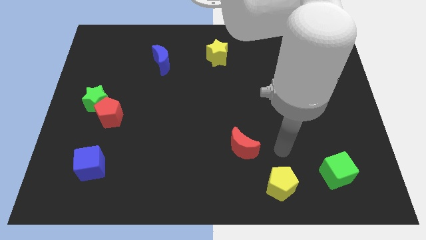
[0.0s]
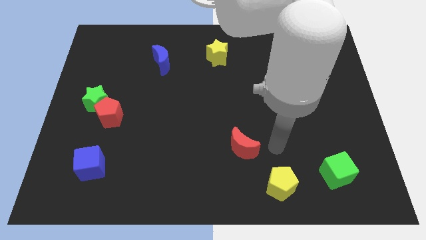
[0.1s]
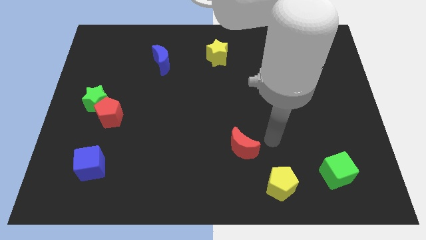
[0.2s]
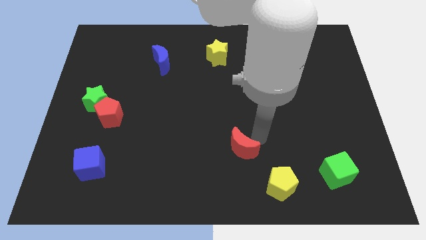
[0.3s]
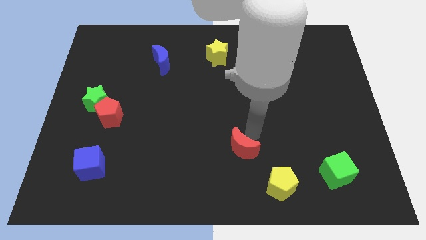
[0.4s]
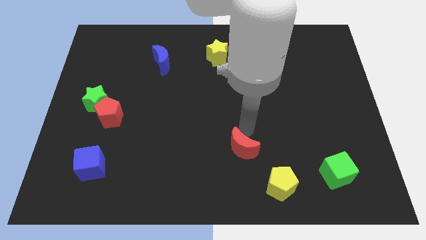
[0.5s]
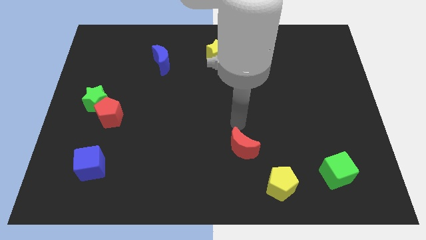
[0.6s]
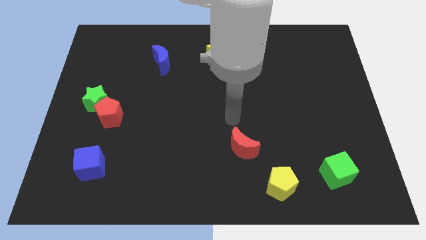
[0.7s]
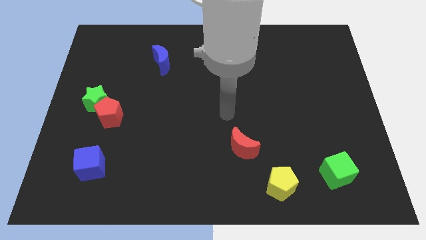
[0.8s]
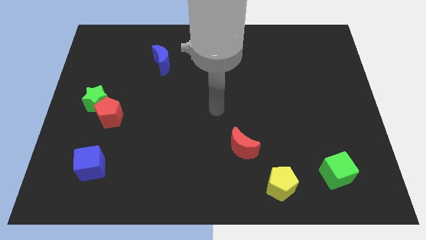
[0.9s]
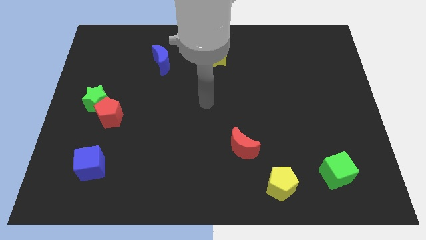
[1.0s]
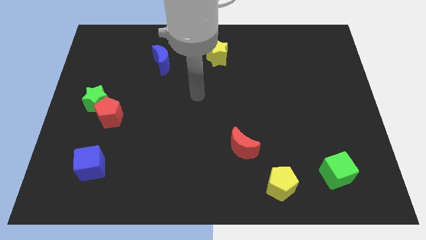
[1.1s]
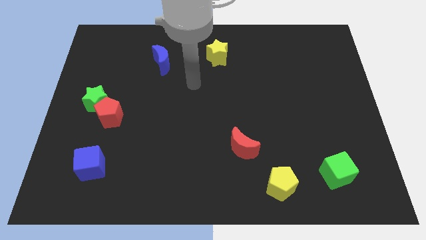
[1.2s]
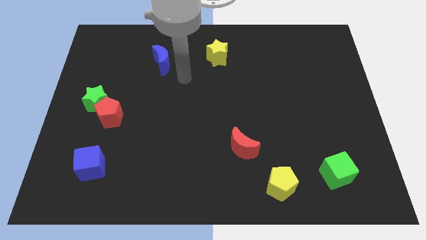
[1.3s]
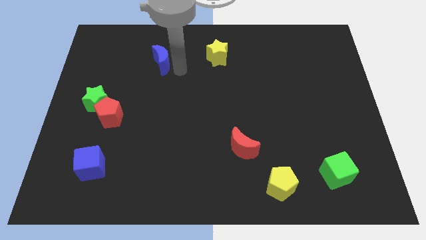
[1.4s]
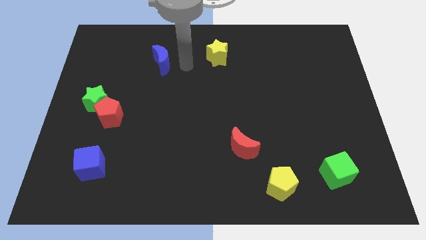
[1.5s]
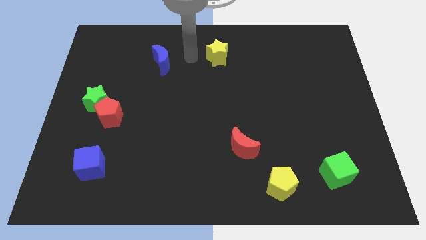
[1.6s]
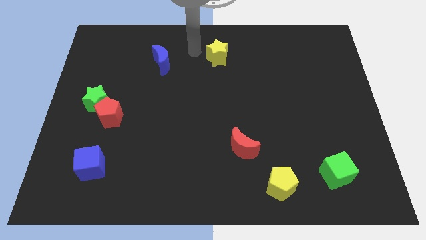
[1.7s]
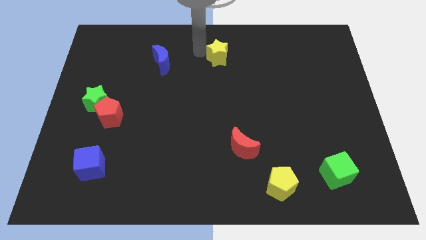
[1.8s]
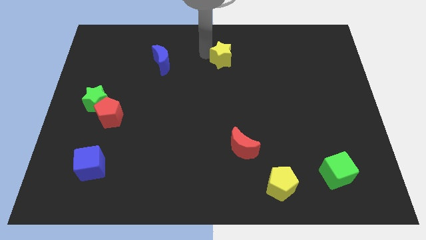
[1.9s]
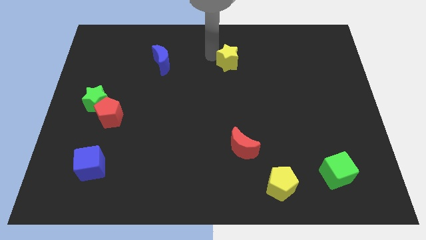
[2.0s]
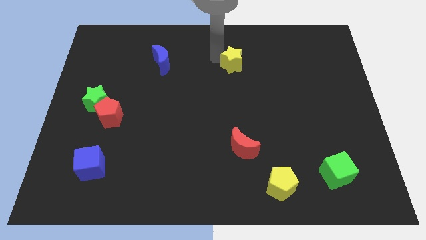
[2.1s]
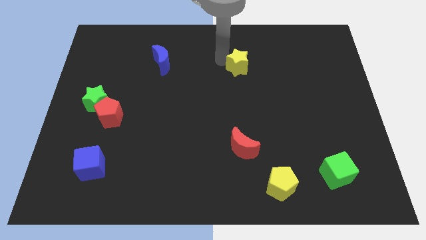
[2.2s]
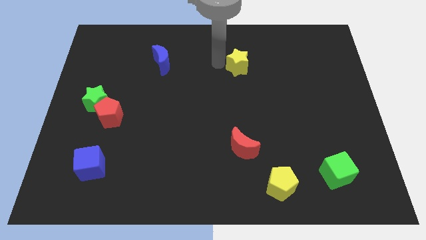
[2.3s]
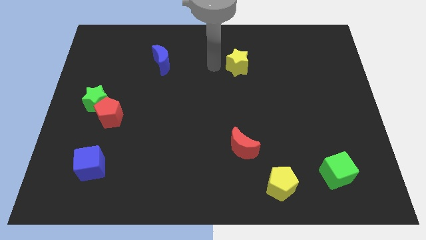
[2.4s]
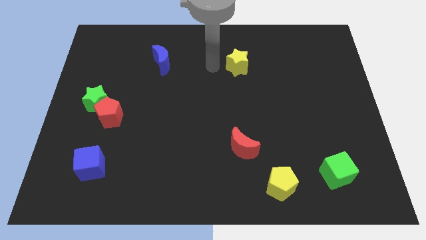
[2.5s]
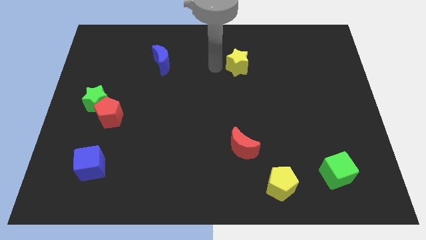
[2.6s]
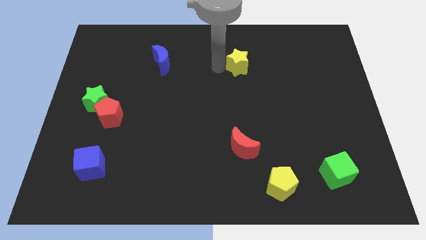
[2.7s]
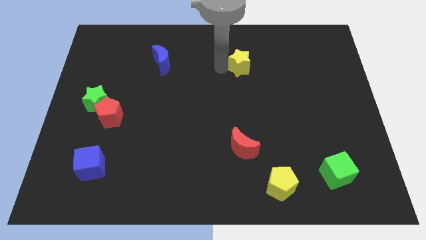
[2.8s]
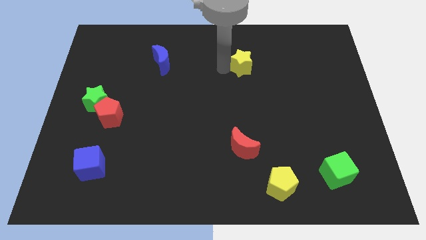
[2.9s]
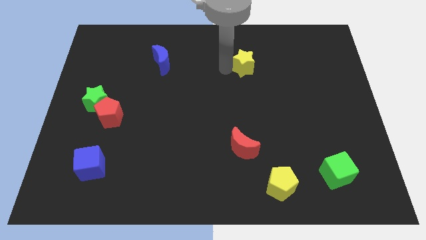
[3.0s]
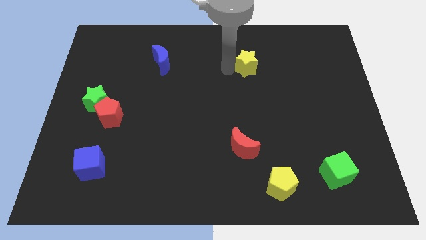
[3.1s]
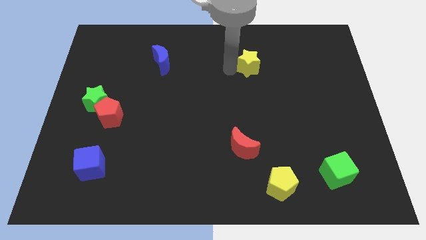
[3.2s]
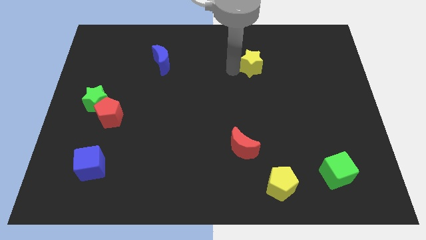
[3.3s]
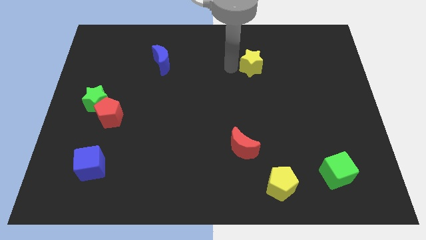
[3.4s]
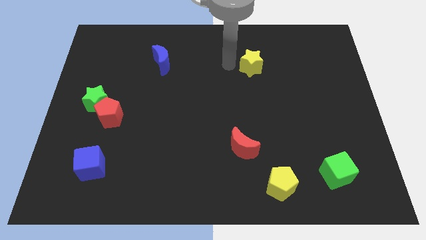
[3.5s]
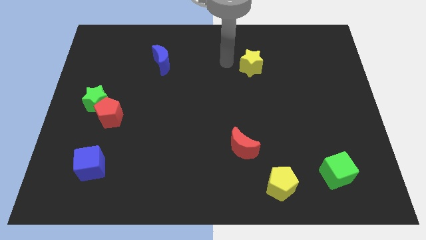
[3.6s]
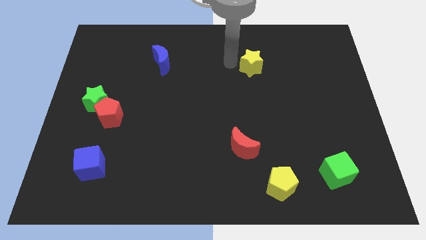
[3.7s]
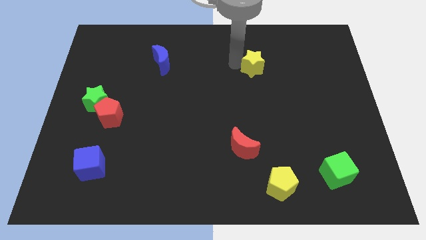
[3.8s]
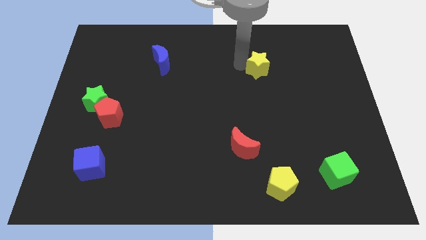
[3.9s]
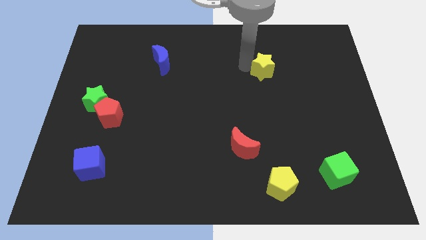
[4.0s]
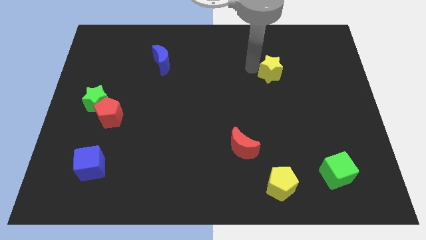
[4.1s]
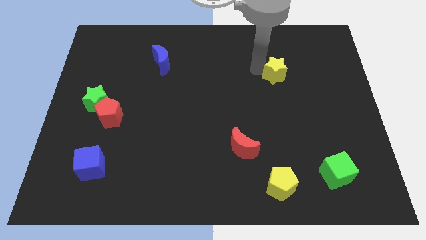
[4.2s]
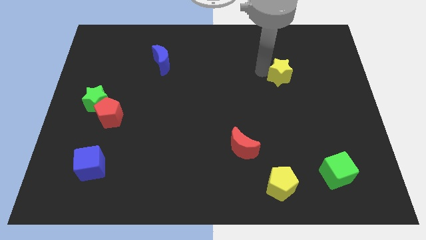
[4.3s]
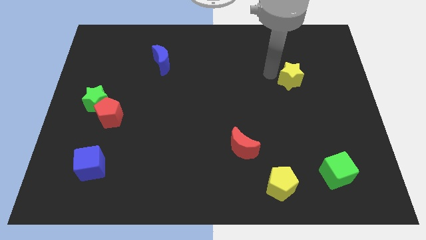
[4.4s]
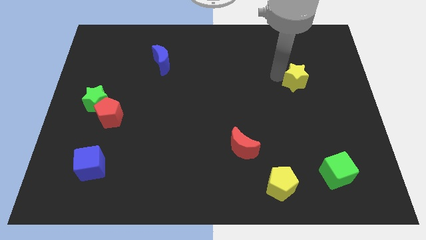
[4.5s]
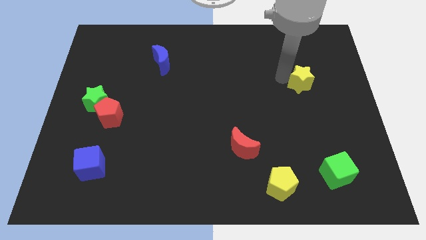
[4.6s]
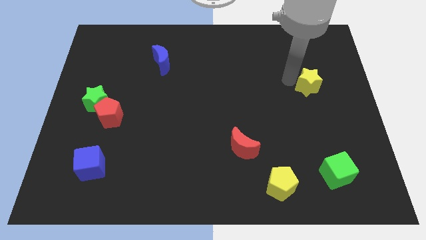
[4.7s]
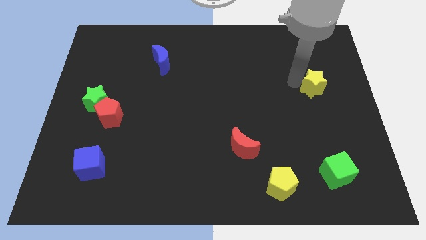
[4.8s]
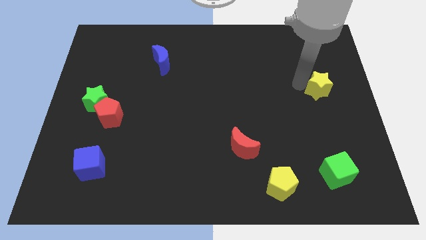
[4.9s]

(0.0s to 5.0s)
push the yellow star to the right side of the board

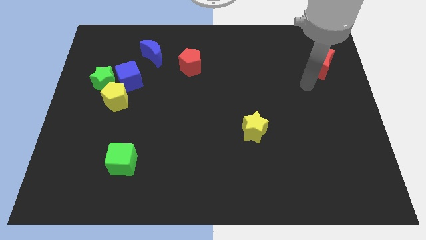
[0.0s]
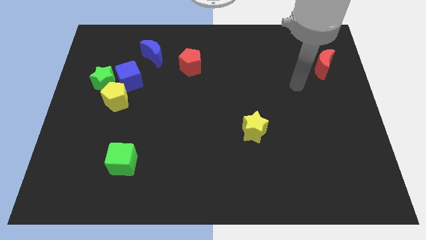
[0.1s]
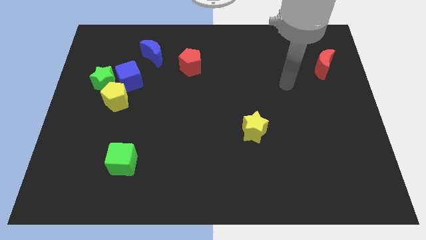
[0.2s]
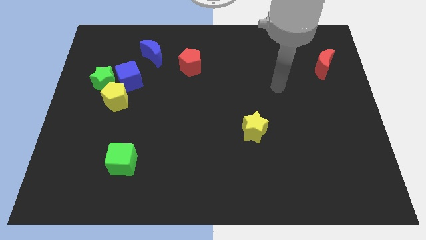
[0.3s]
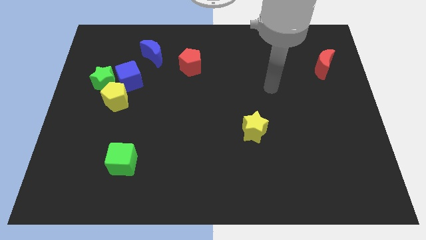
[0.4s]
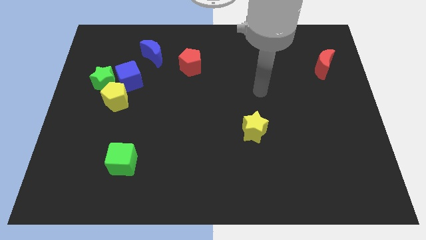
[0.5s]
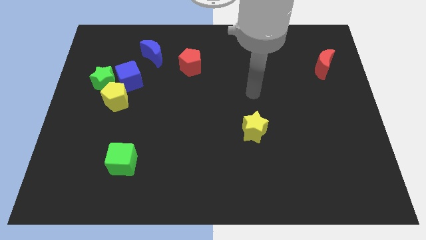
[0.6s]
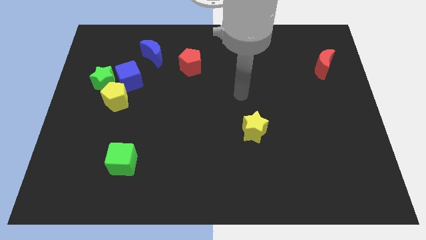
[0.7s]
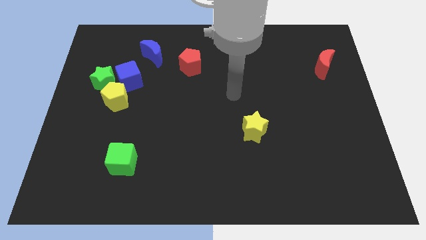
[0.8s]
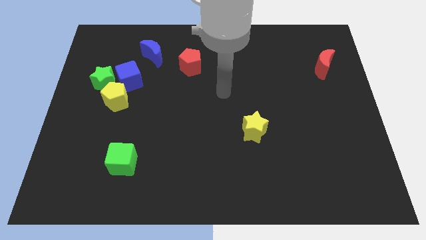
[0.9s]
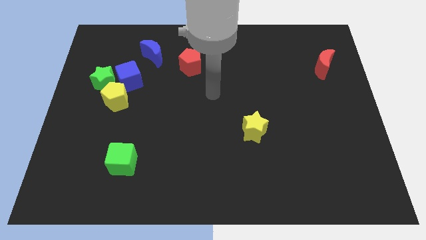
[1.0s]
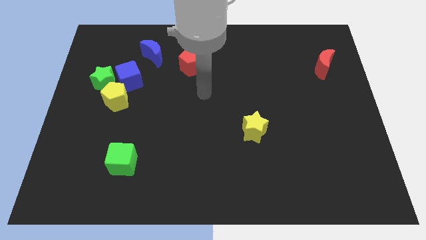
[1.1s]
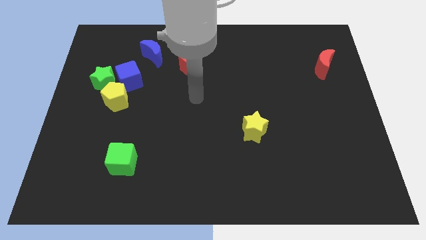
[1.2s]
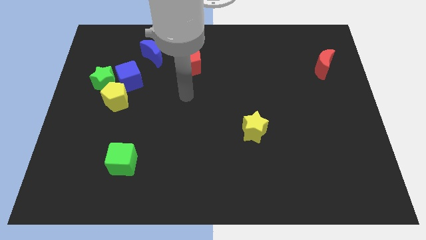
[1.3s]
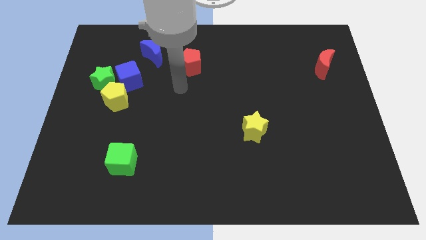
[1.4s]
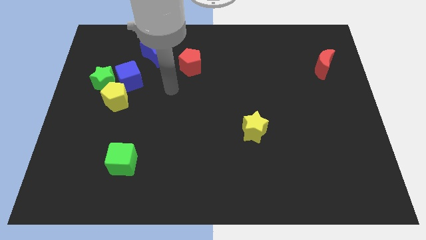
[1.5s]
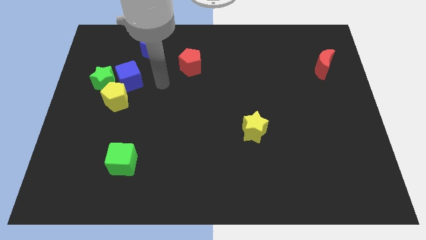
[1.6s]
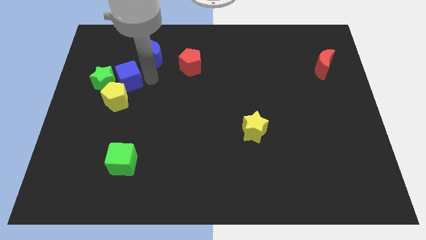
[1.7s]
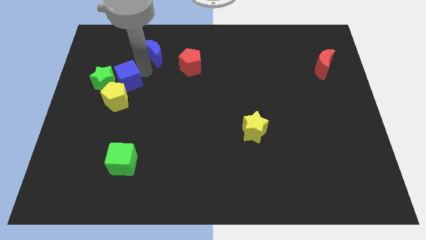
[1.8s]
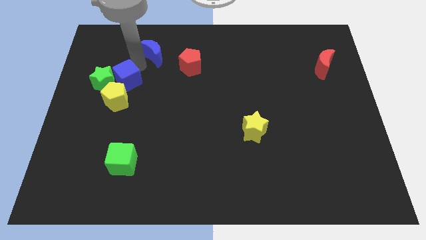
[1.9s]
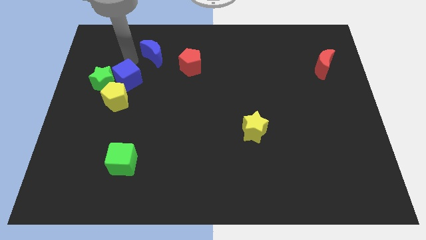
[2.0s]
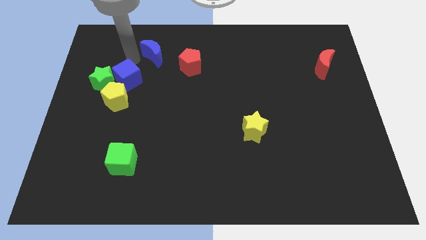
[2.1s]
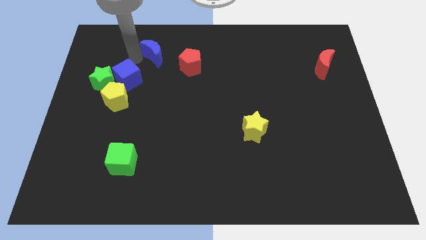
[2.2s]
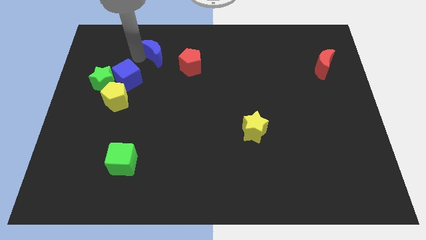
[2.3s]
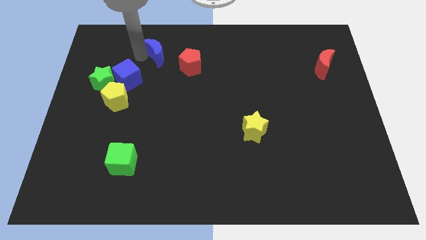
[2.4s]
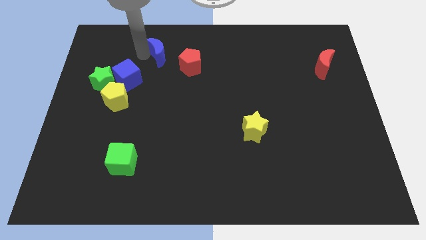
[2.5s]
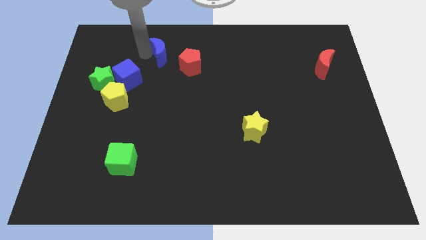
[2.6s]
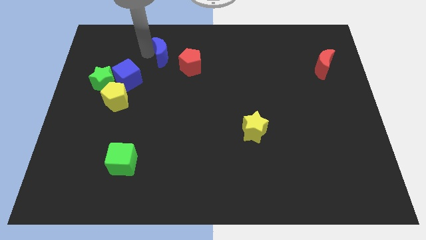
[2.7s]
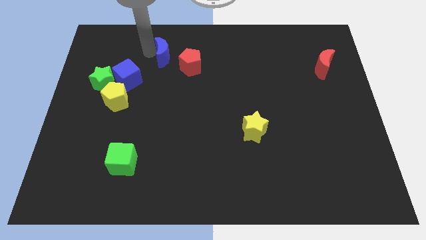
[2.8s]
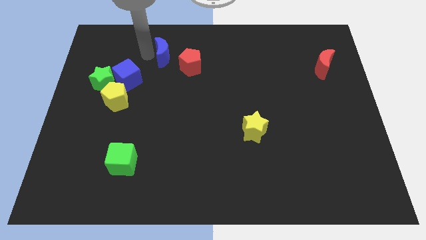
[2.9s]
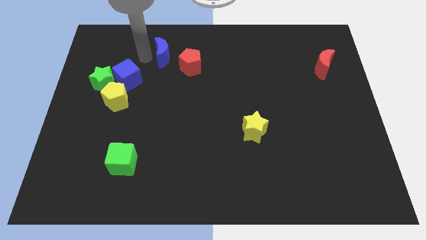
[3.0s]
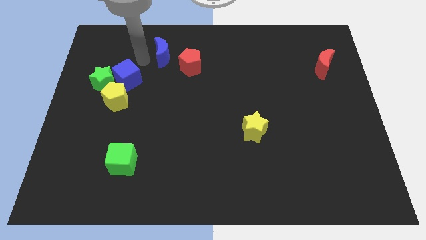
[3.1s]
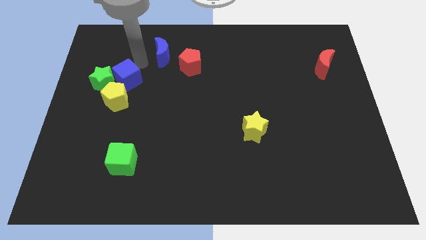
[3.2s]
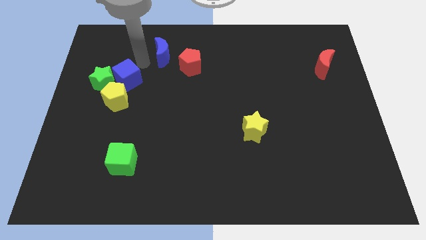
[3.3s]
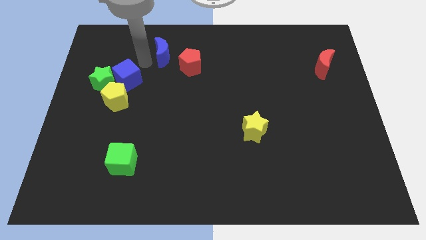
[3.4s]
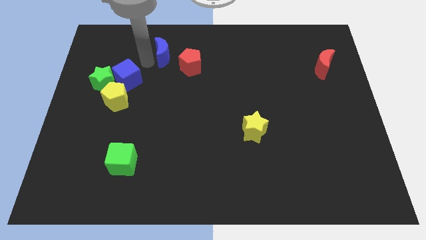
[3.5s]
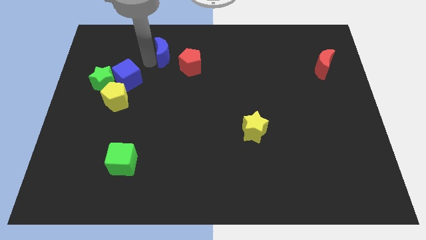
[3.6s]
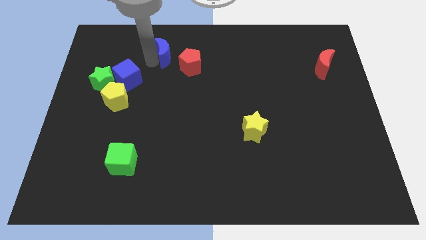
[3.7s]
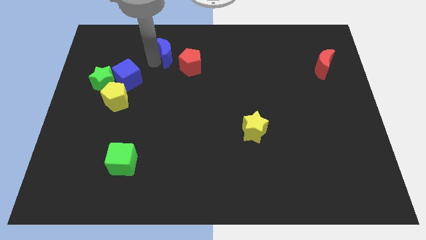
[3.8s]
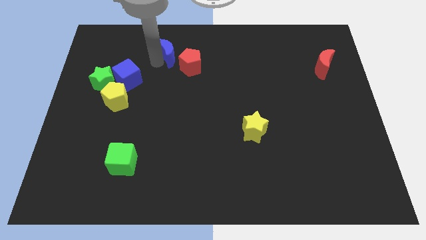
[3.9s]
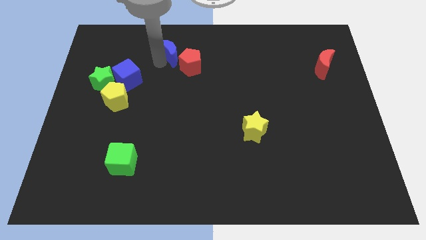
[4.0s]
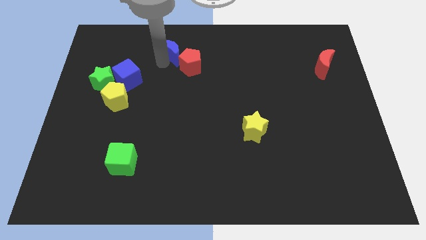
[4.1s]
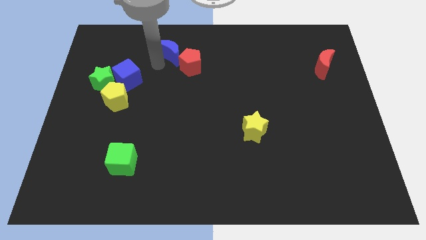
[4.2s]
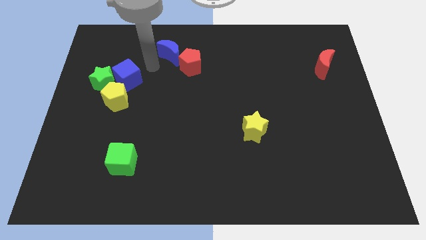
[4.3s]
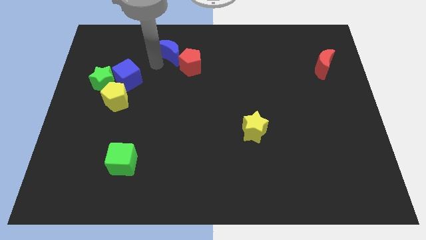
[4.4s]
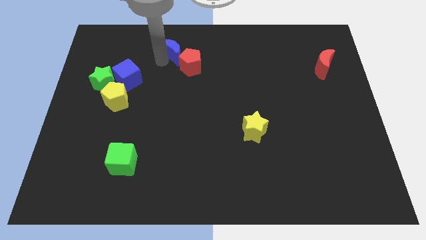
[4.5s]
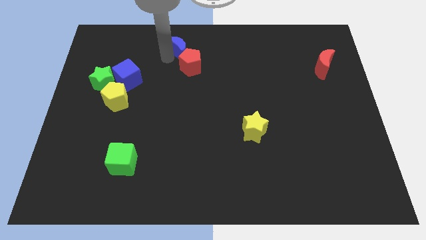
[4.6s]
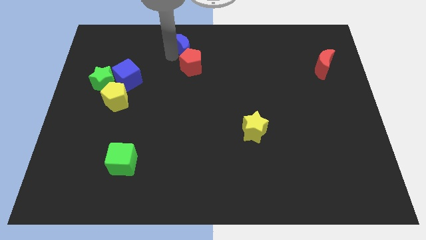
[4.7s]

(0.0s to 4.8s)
move the blue moon to the towards your base
